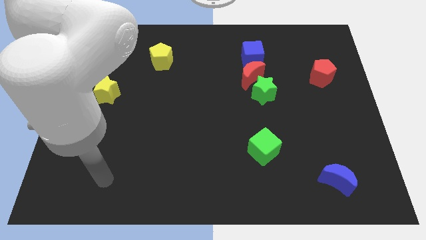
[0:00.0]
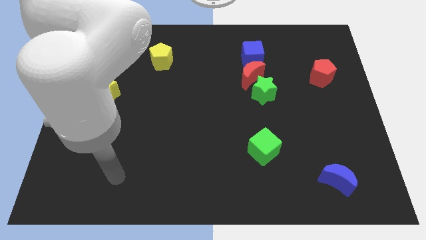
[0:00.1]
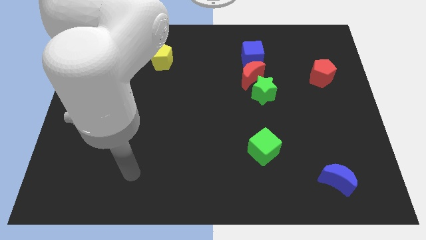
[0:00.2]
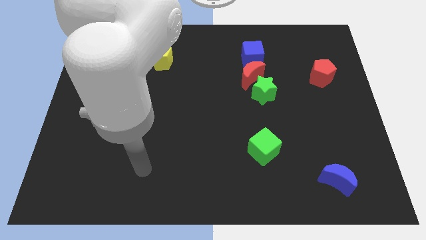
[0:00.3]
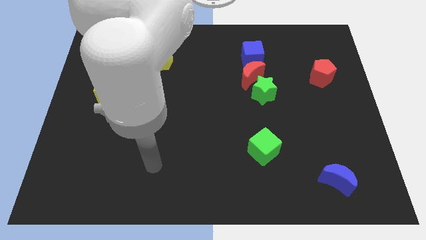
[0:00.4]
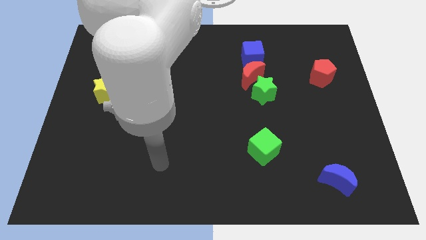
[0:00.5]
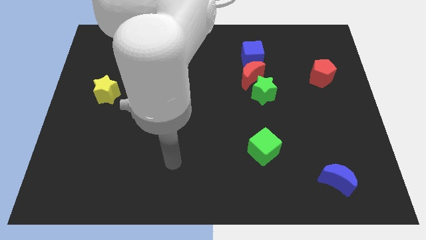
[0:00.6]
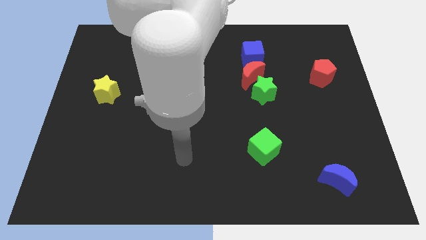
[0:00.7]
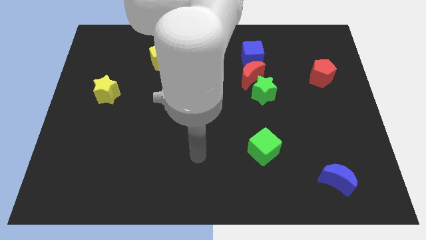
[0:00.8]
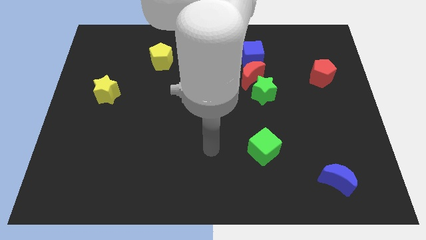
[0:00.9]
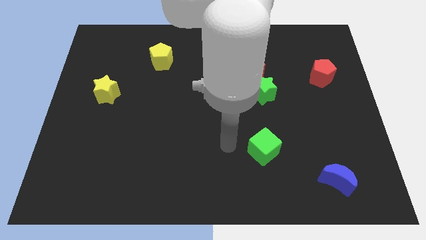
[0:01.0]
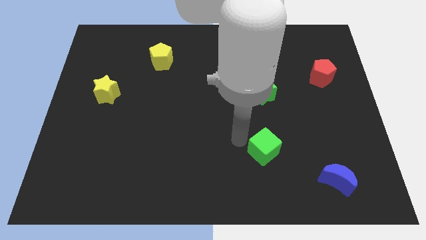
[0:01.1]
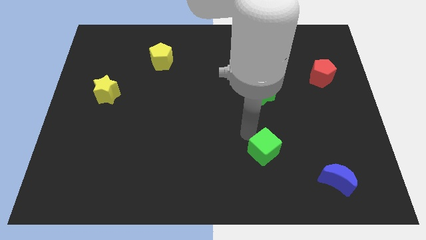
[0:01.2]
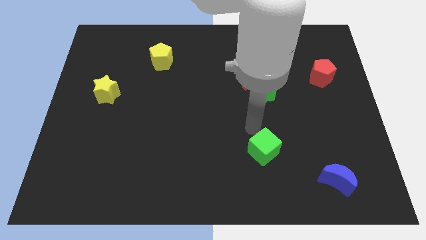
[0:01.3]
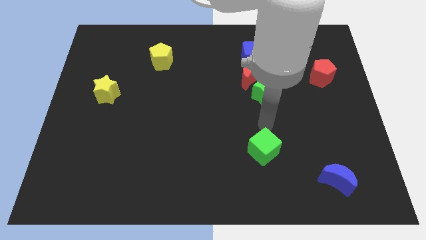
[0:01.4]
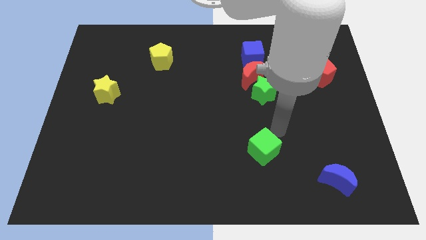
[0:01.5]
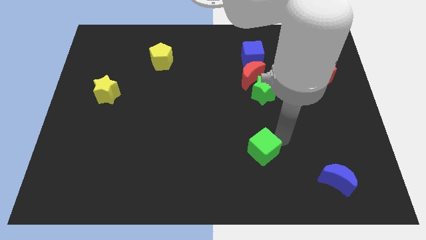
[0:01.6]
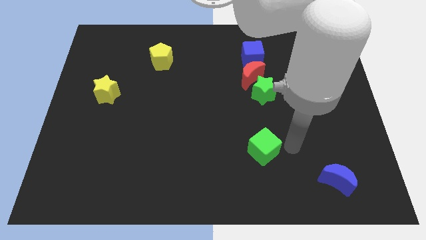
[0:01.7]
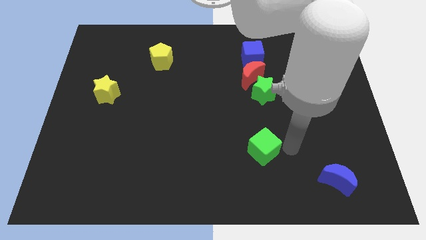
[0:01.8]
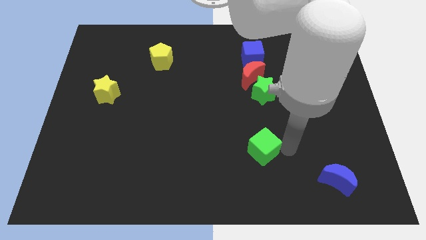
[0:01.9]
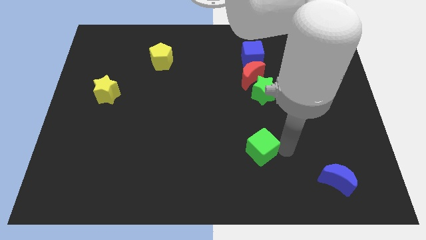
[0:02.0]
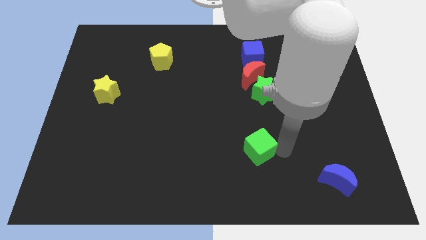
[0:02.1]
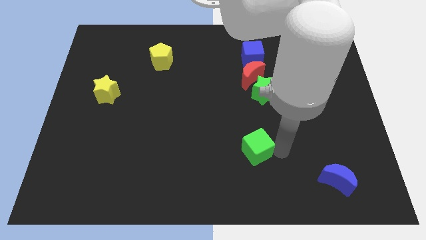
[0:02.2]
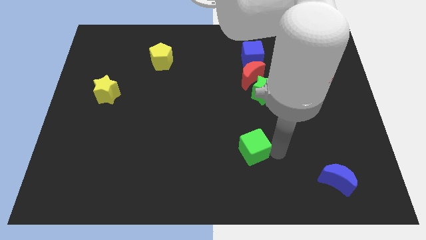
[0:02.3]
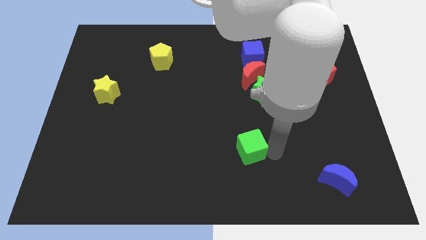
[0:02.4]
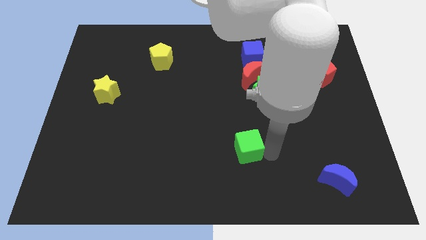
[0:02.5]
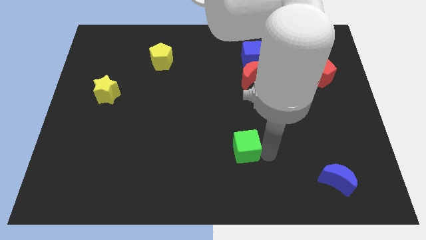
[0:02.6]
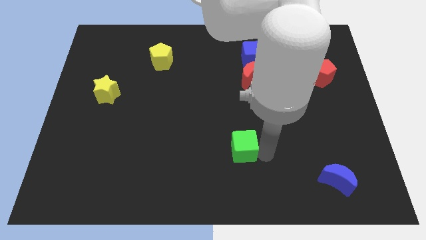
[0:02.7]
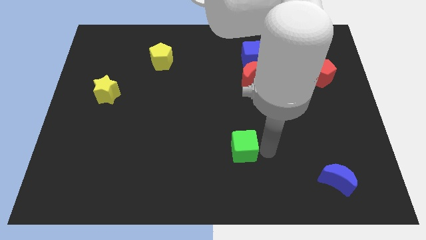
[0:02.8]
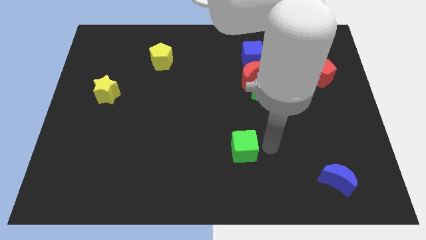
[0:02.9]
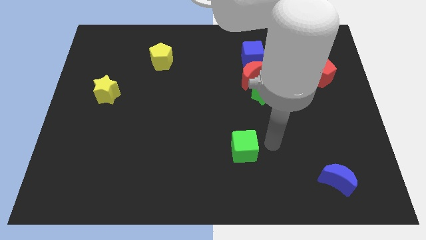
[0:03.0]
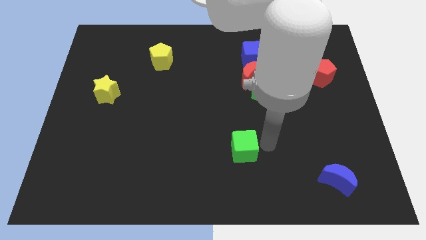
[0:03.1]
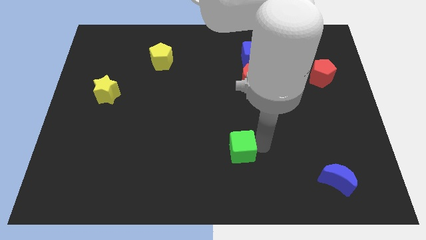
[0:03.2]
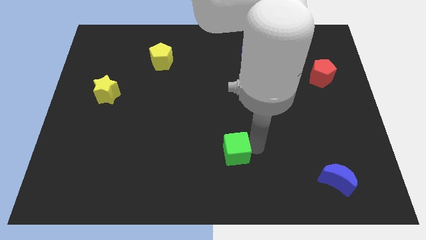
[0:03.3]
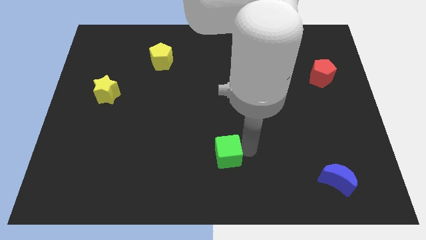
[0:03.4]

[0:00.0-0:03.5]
slightly push the green cube left

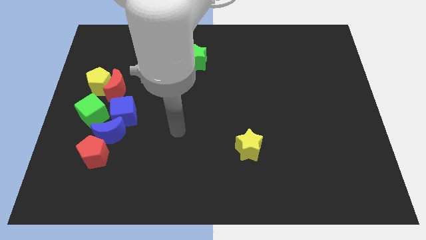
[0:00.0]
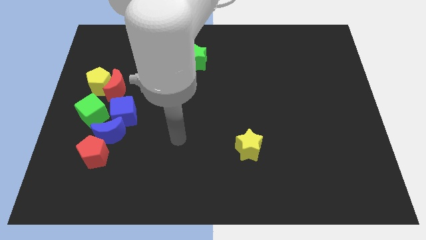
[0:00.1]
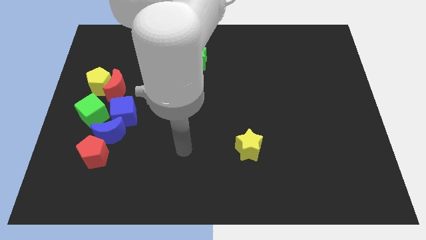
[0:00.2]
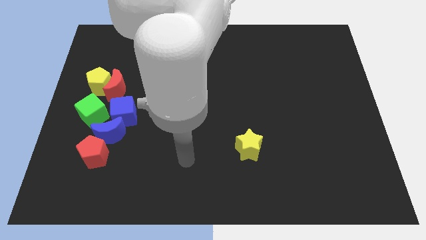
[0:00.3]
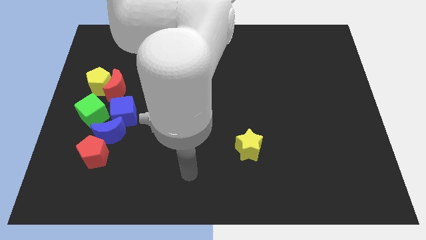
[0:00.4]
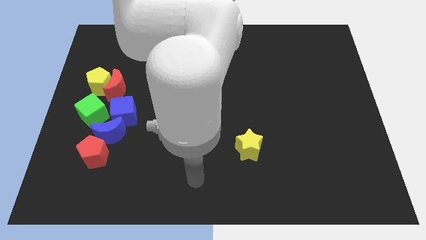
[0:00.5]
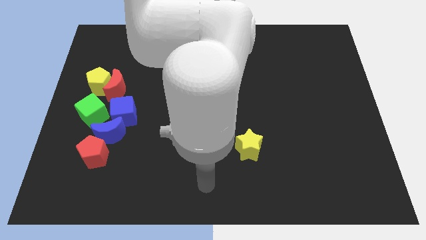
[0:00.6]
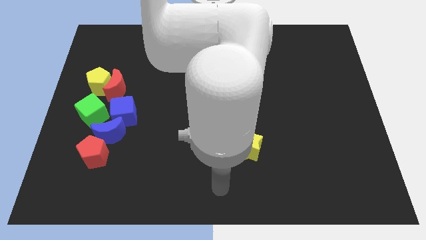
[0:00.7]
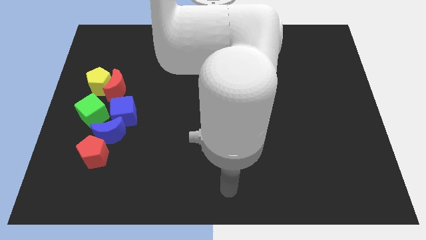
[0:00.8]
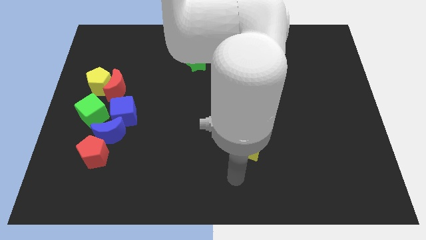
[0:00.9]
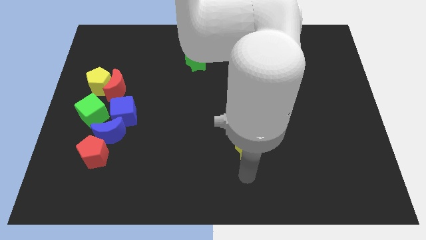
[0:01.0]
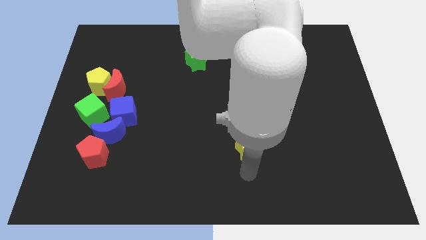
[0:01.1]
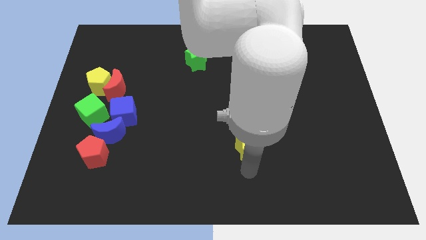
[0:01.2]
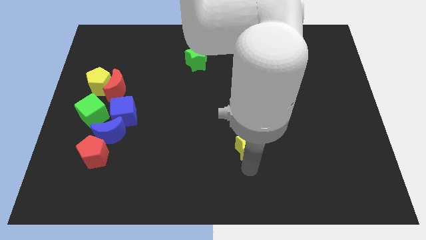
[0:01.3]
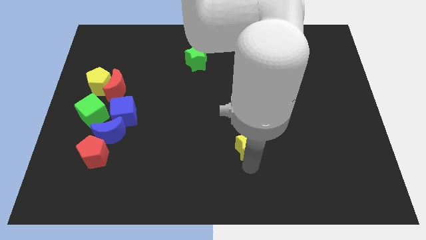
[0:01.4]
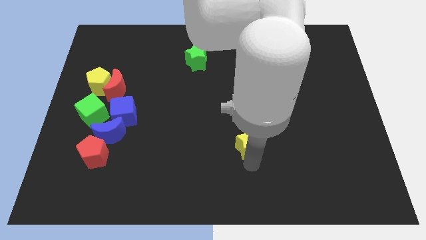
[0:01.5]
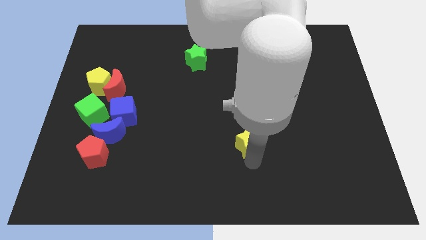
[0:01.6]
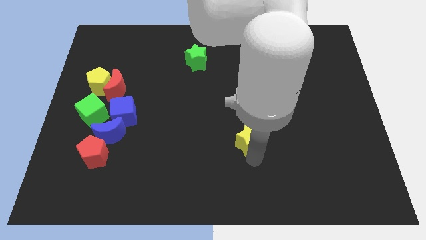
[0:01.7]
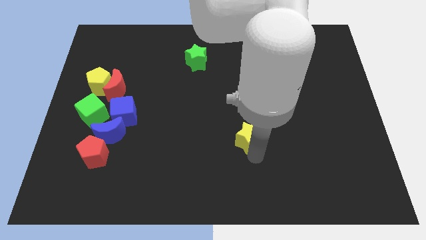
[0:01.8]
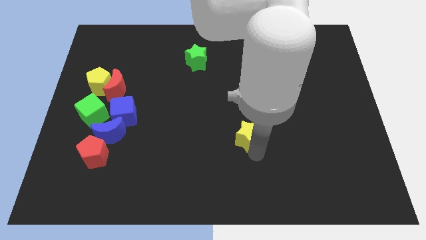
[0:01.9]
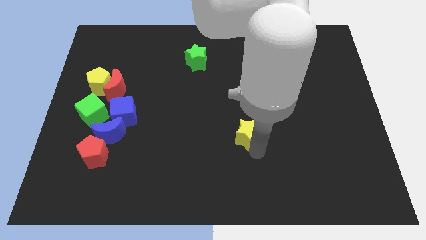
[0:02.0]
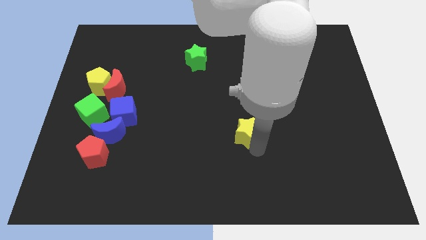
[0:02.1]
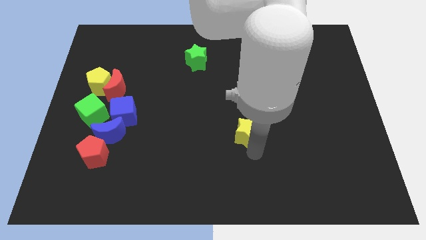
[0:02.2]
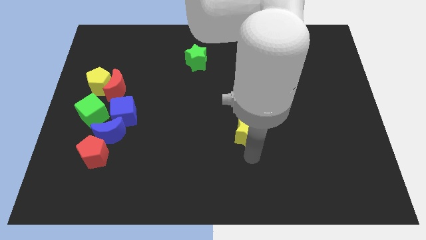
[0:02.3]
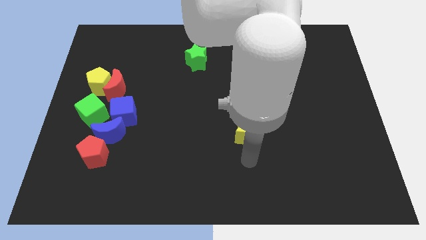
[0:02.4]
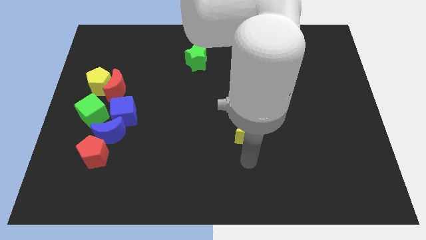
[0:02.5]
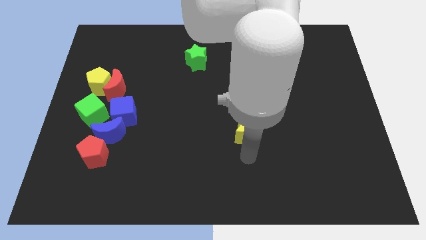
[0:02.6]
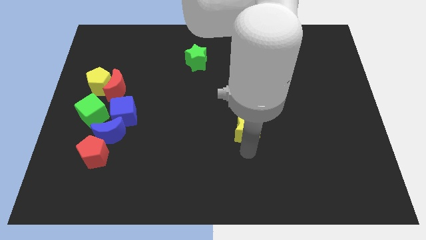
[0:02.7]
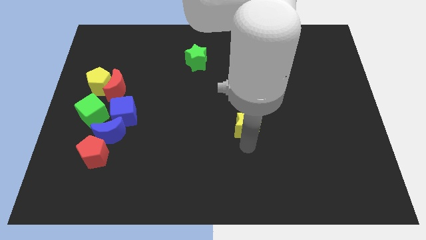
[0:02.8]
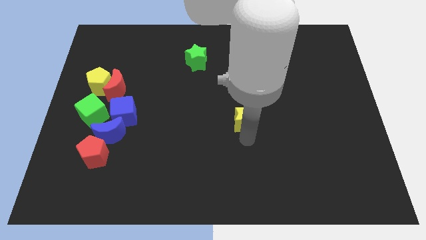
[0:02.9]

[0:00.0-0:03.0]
slightly push the yellow star up

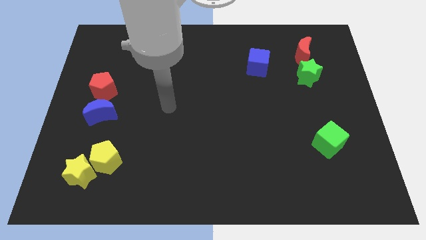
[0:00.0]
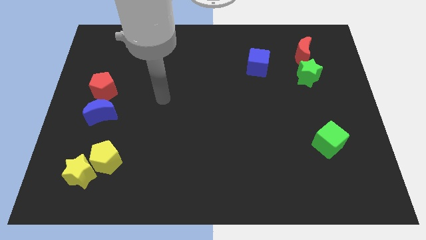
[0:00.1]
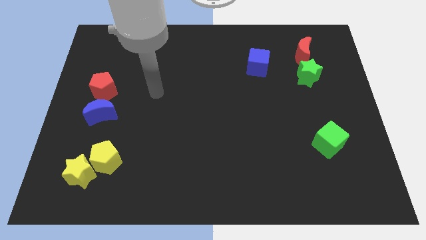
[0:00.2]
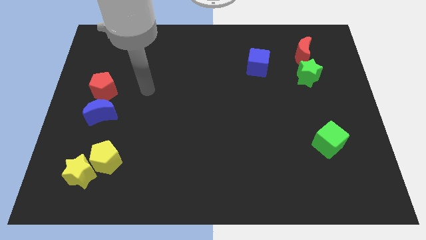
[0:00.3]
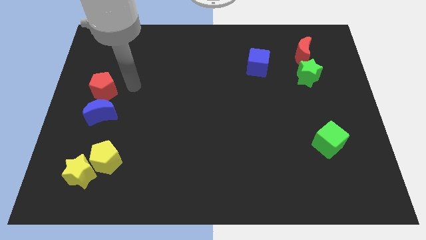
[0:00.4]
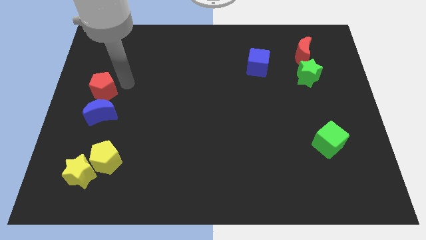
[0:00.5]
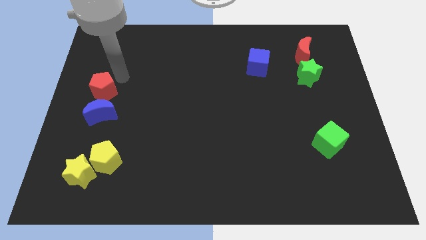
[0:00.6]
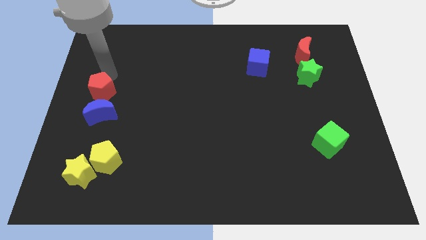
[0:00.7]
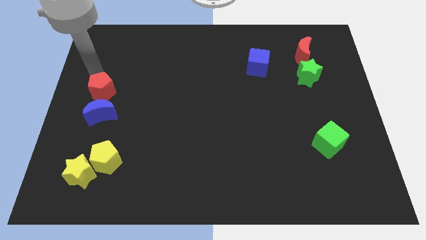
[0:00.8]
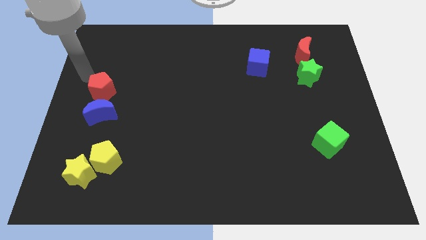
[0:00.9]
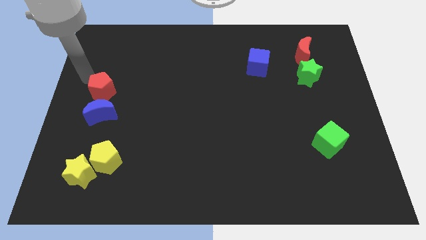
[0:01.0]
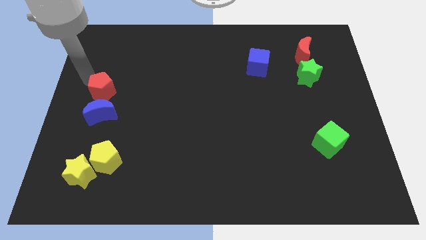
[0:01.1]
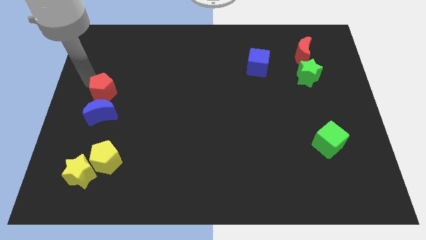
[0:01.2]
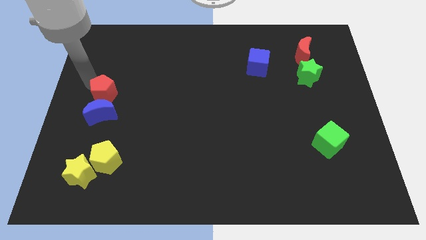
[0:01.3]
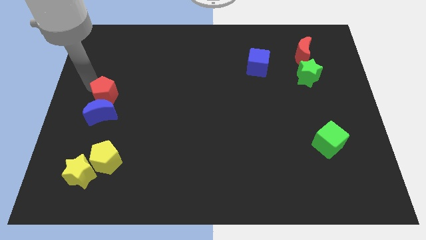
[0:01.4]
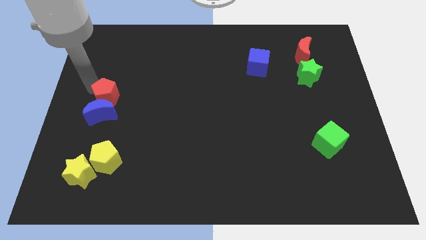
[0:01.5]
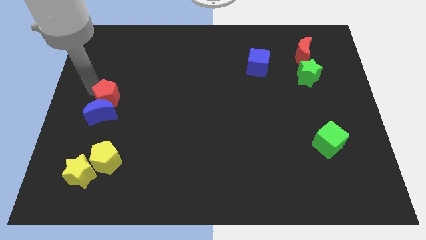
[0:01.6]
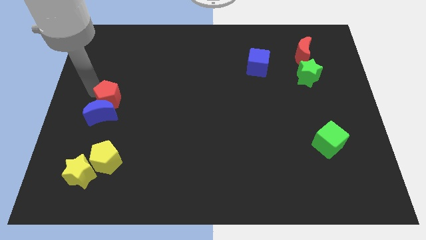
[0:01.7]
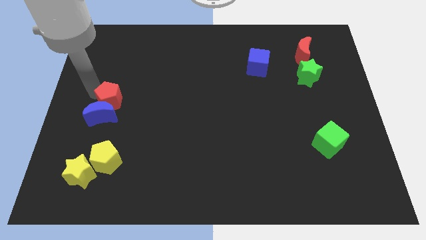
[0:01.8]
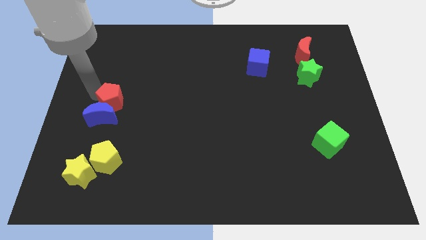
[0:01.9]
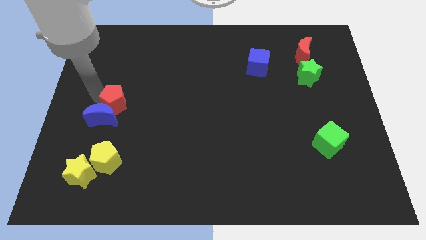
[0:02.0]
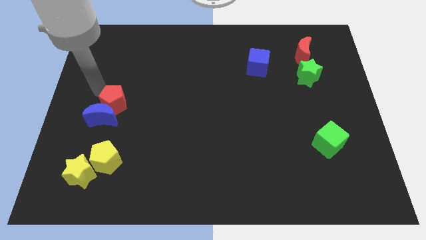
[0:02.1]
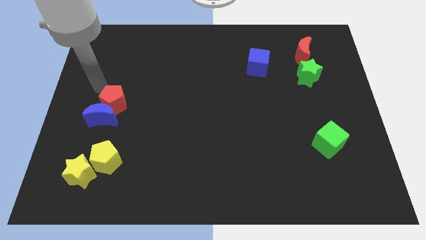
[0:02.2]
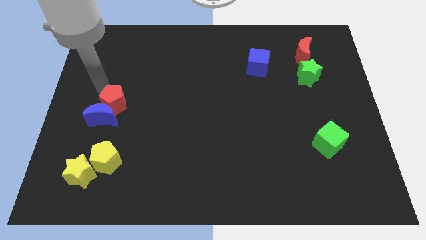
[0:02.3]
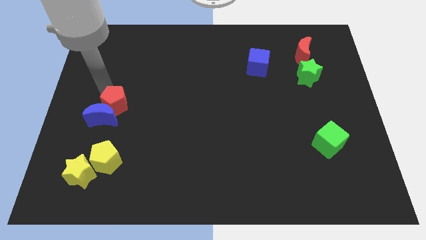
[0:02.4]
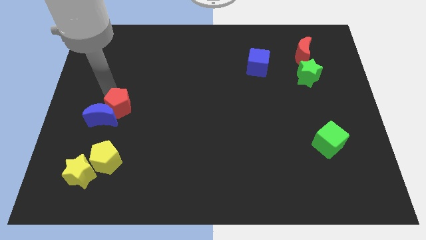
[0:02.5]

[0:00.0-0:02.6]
push the red pentagon a little downwards and right diagonally
